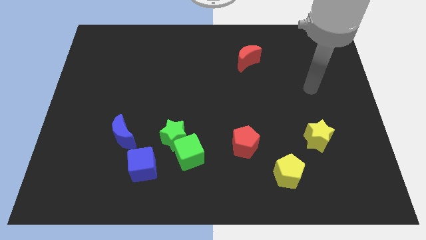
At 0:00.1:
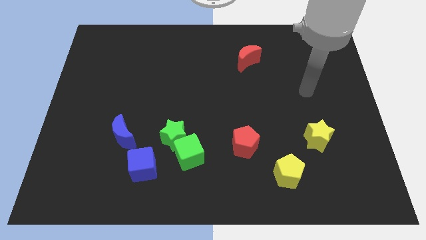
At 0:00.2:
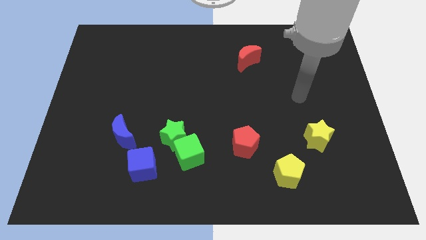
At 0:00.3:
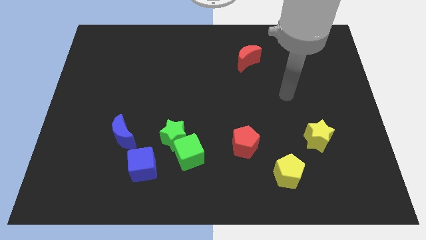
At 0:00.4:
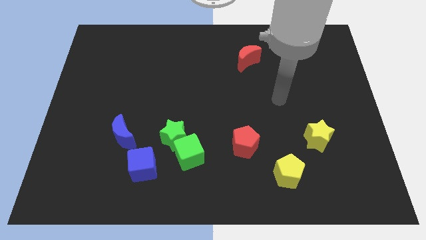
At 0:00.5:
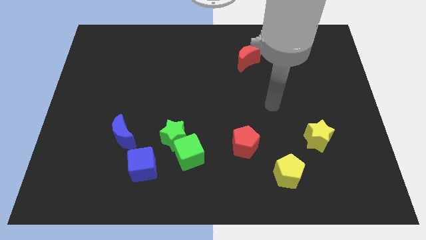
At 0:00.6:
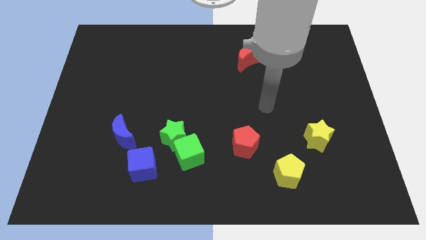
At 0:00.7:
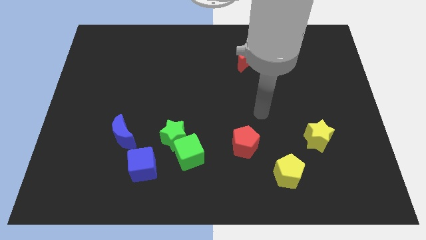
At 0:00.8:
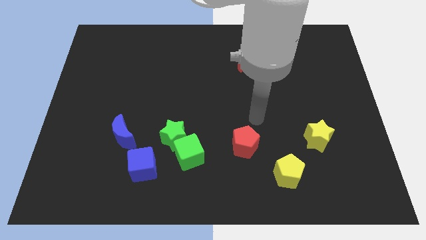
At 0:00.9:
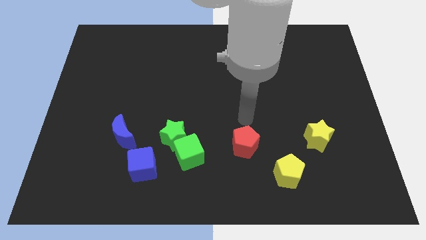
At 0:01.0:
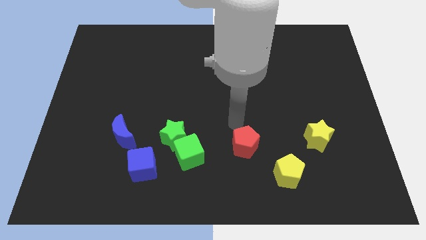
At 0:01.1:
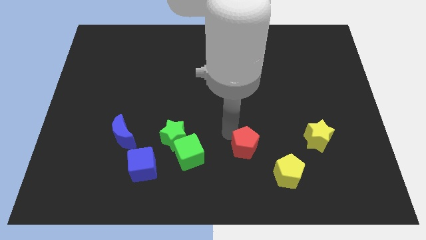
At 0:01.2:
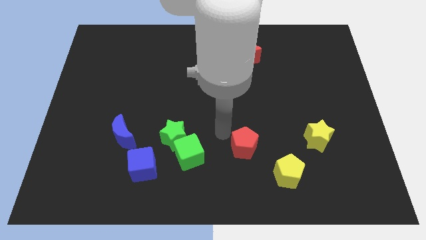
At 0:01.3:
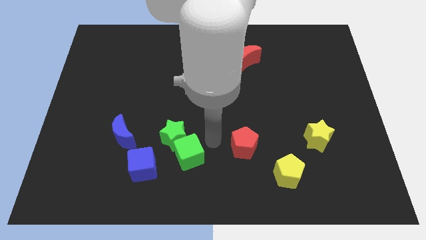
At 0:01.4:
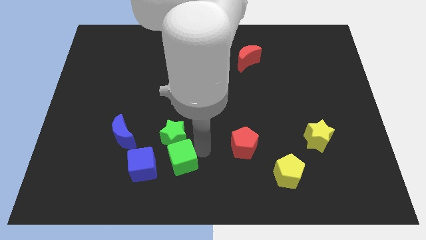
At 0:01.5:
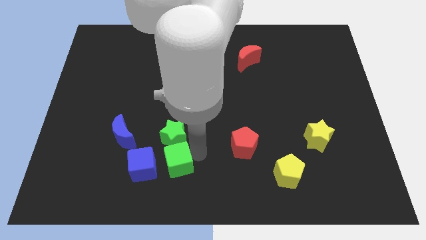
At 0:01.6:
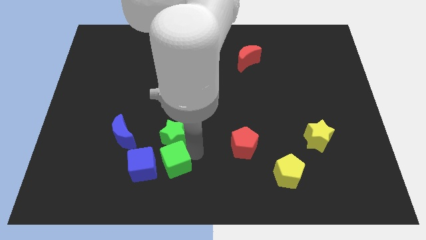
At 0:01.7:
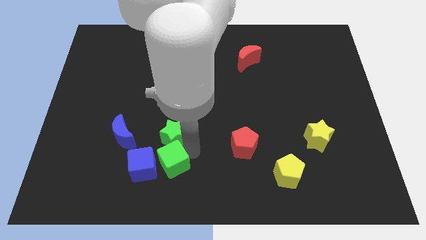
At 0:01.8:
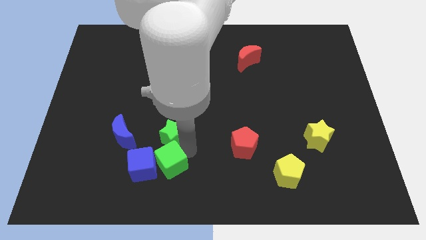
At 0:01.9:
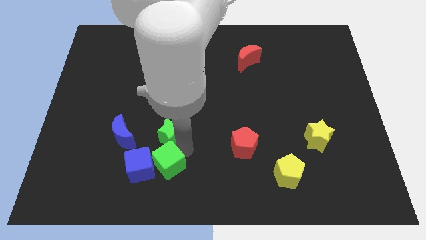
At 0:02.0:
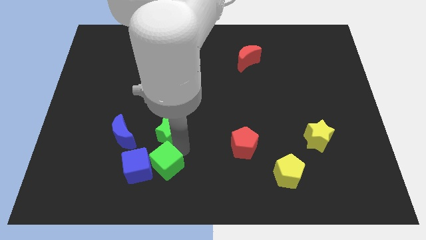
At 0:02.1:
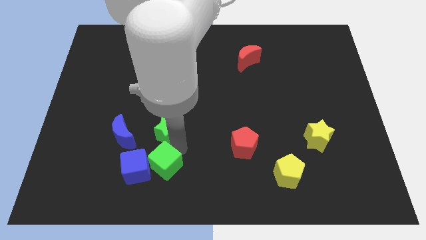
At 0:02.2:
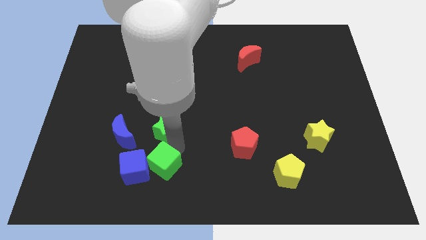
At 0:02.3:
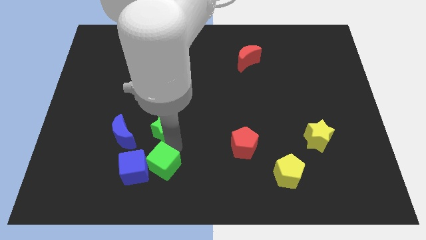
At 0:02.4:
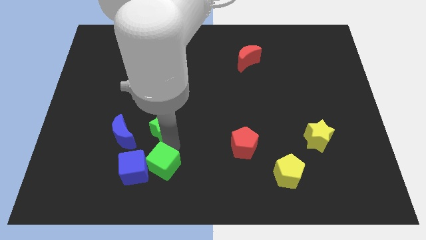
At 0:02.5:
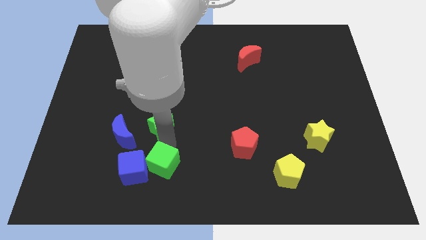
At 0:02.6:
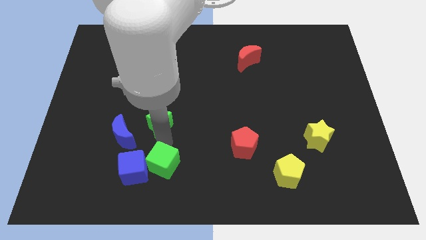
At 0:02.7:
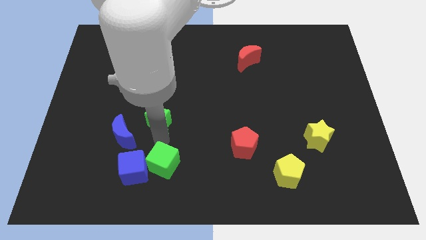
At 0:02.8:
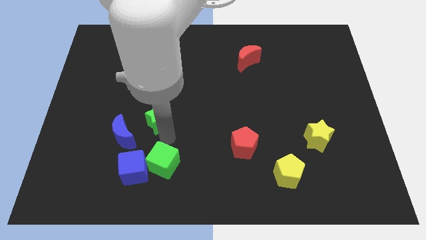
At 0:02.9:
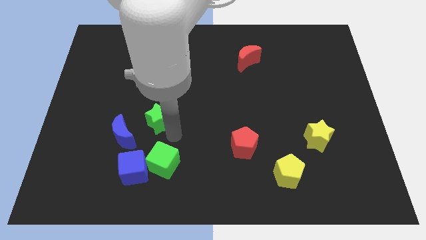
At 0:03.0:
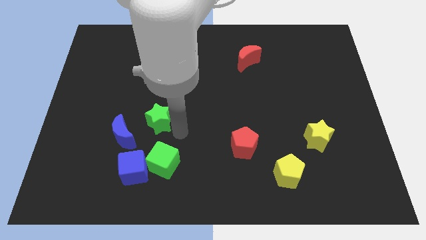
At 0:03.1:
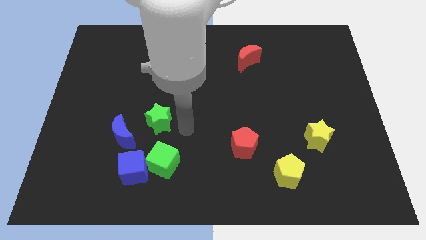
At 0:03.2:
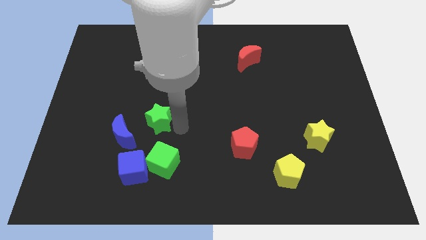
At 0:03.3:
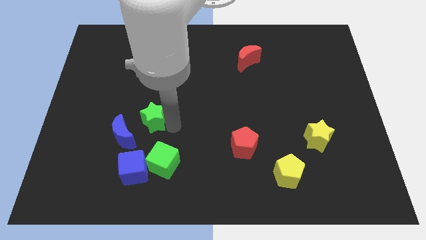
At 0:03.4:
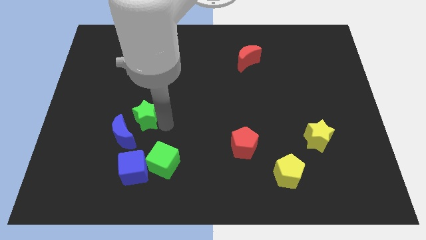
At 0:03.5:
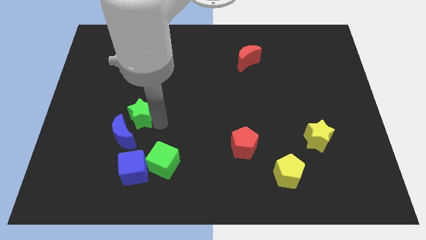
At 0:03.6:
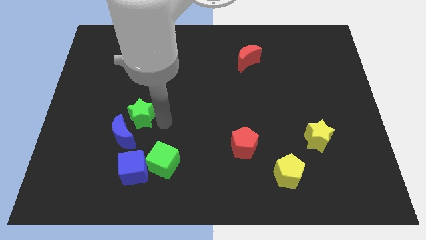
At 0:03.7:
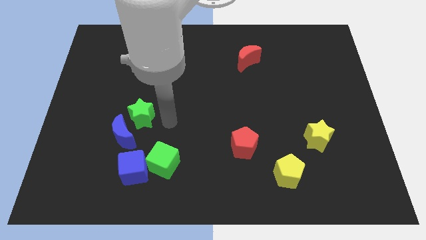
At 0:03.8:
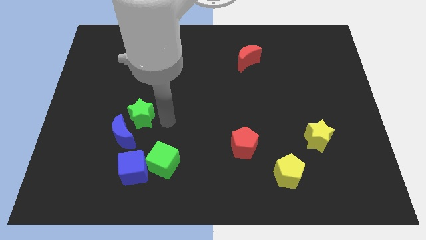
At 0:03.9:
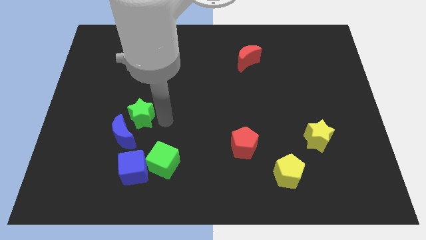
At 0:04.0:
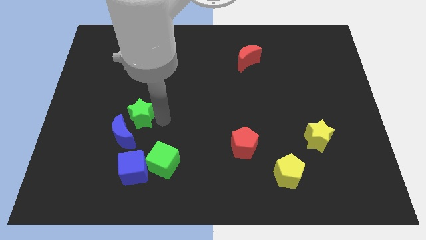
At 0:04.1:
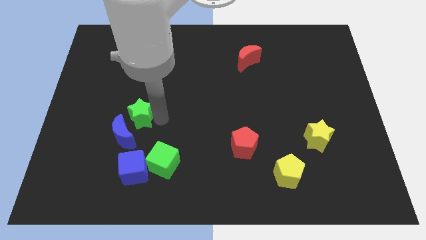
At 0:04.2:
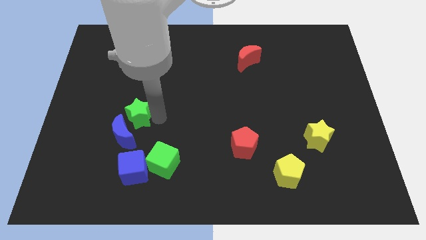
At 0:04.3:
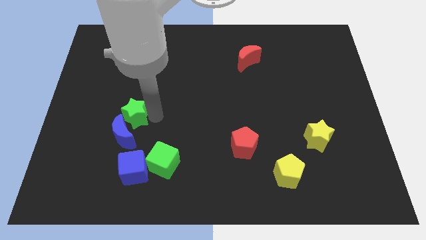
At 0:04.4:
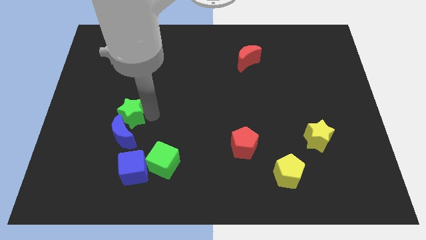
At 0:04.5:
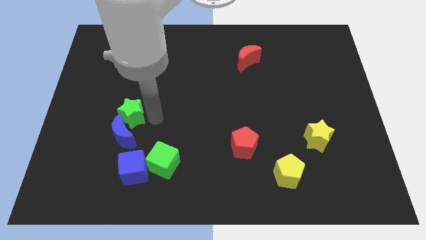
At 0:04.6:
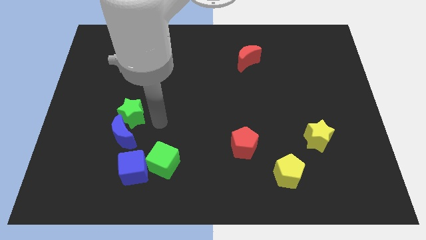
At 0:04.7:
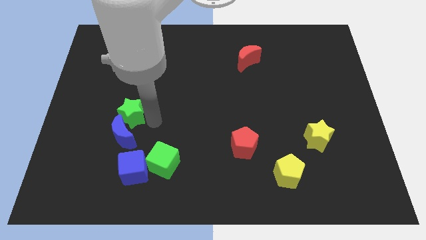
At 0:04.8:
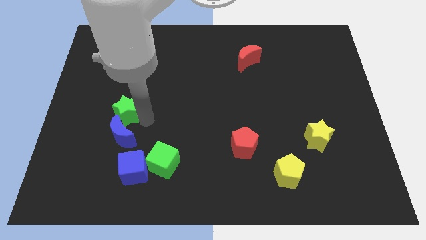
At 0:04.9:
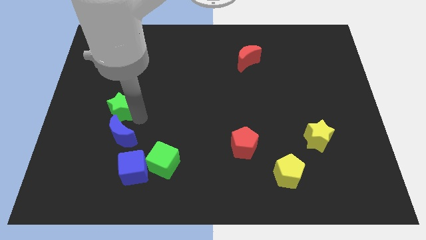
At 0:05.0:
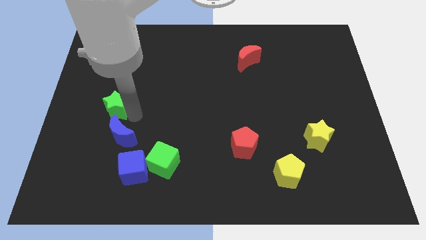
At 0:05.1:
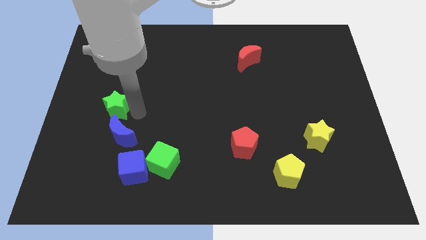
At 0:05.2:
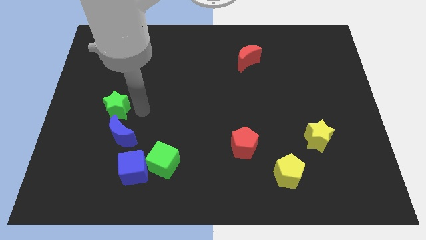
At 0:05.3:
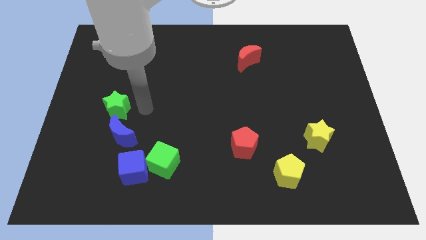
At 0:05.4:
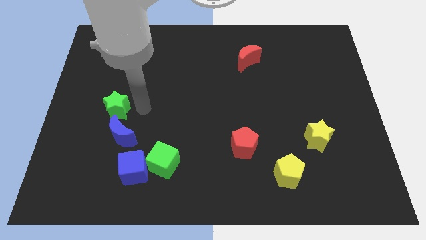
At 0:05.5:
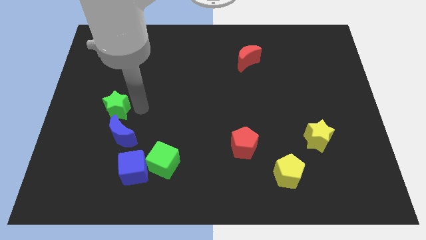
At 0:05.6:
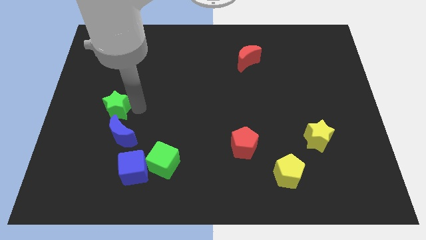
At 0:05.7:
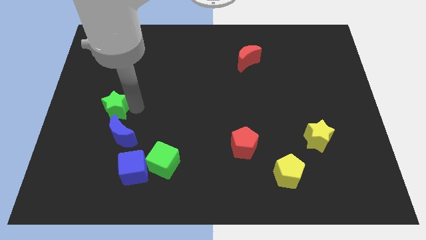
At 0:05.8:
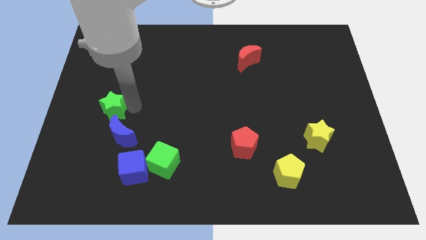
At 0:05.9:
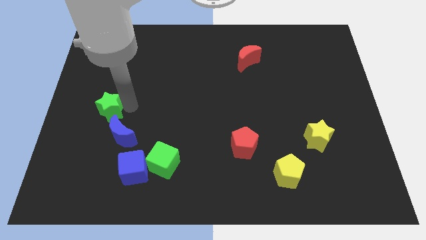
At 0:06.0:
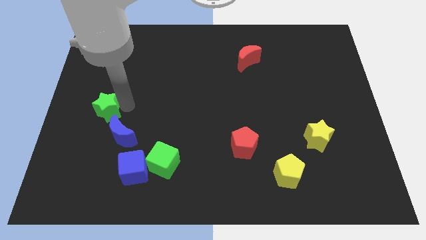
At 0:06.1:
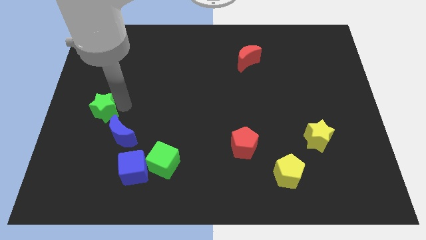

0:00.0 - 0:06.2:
slide the green star to the left side of the board

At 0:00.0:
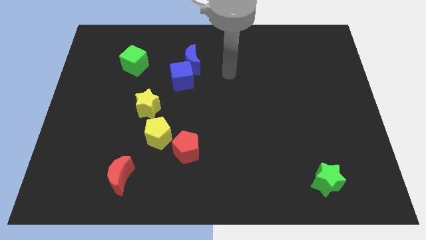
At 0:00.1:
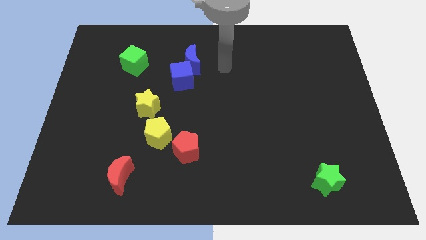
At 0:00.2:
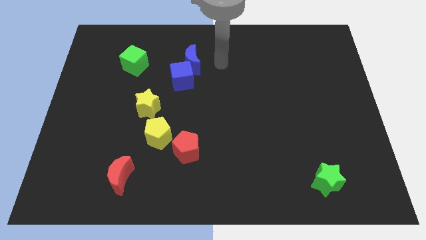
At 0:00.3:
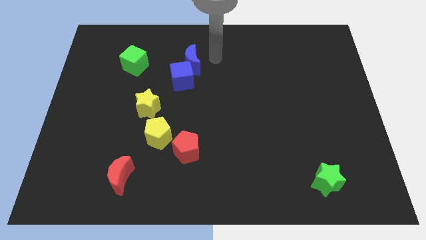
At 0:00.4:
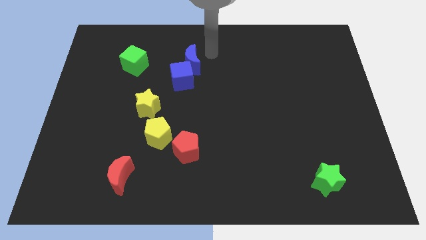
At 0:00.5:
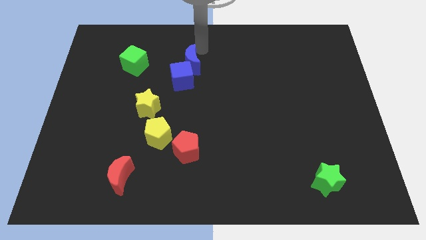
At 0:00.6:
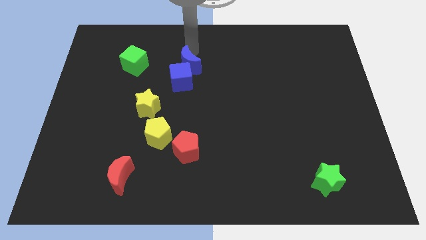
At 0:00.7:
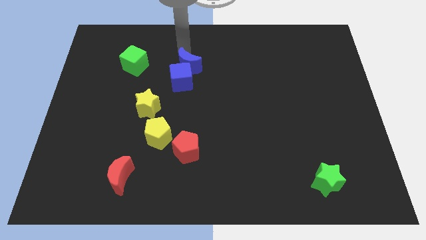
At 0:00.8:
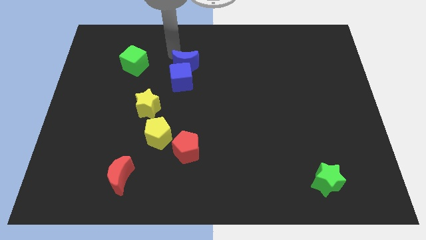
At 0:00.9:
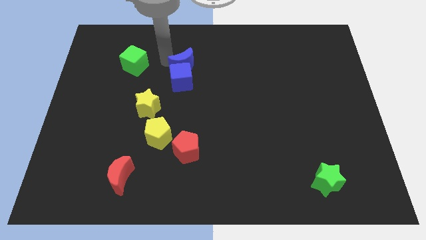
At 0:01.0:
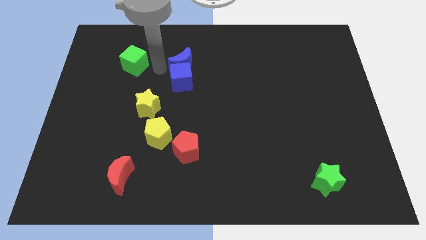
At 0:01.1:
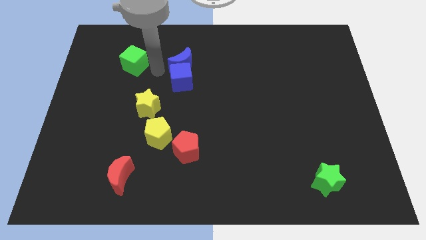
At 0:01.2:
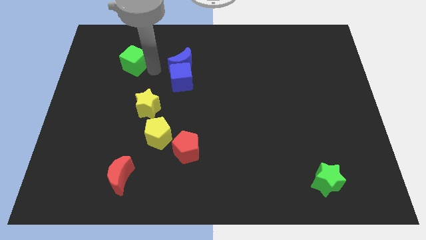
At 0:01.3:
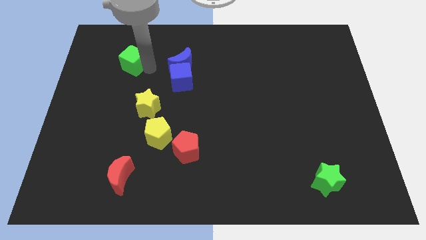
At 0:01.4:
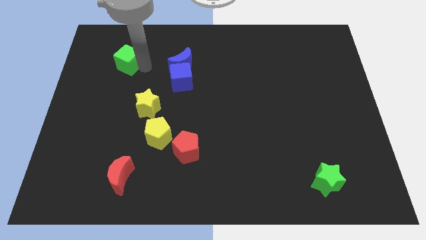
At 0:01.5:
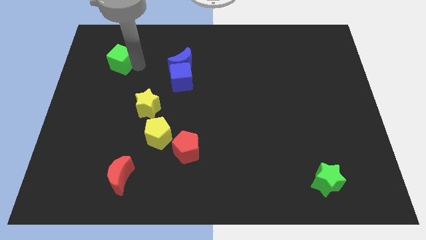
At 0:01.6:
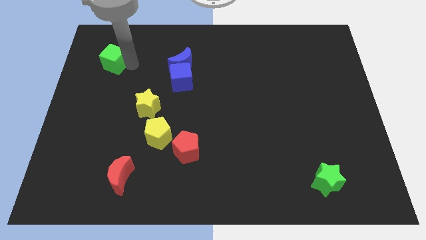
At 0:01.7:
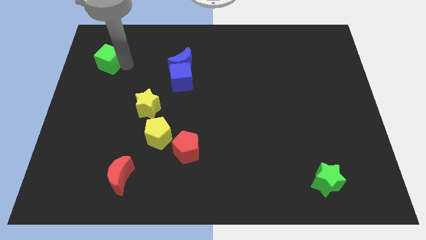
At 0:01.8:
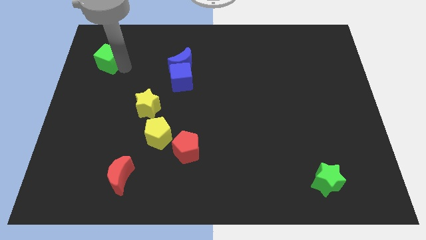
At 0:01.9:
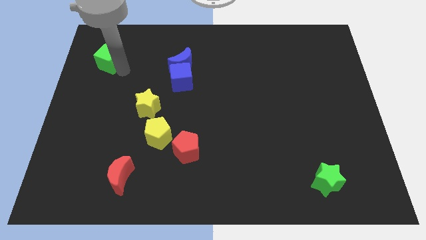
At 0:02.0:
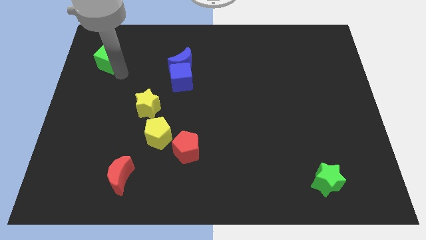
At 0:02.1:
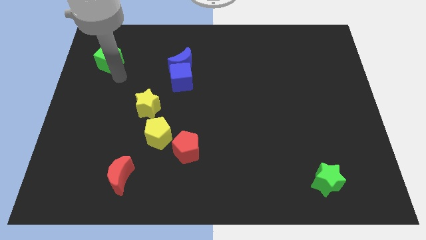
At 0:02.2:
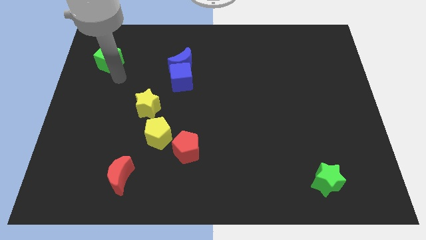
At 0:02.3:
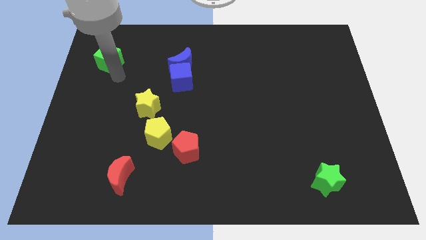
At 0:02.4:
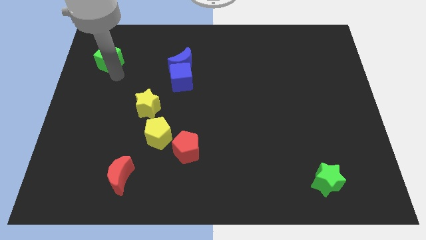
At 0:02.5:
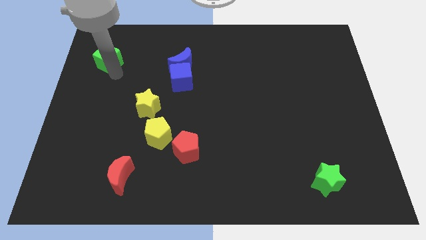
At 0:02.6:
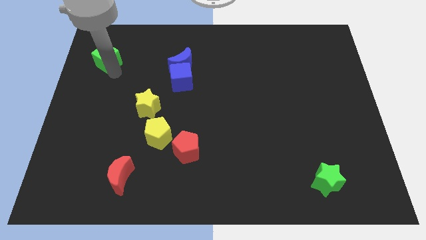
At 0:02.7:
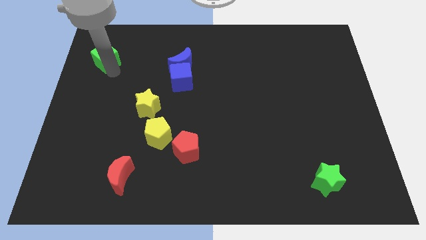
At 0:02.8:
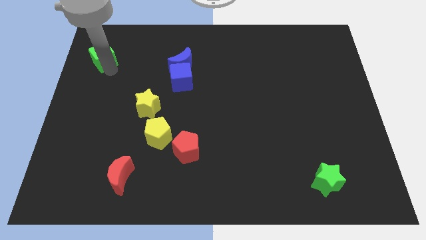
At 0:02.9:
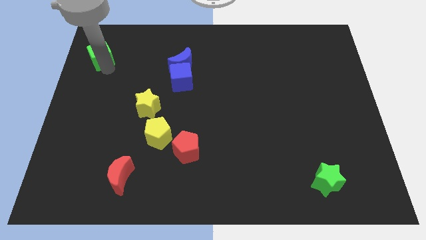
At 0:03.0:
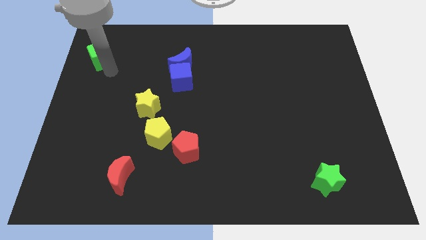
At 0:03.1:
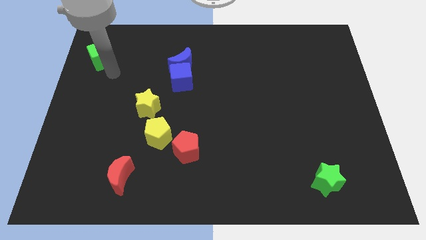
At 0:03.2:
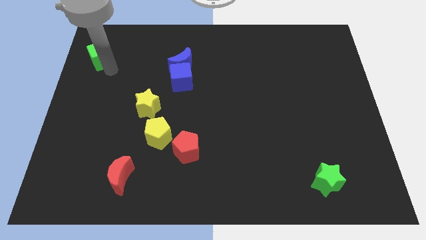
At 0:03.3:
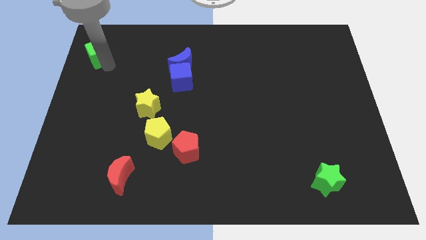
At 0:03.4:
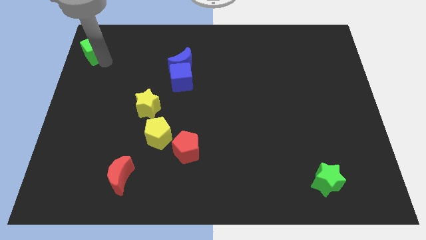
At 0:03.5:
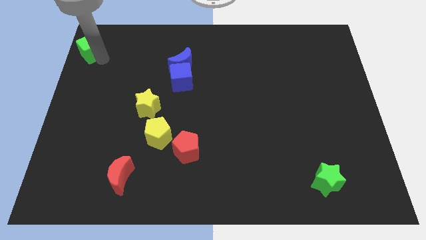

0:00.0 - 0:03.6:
put the green cube to the top left corner
